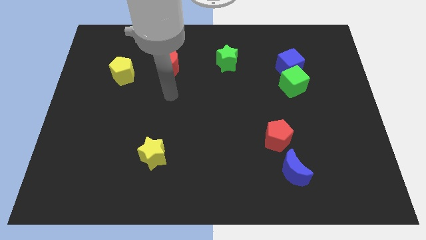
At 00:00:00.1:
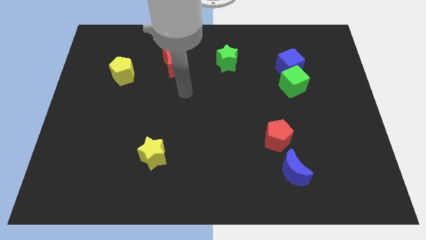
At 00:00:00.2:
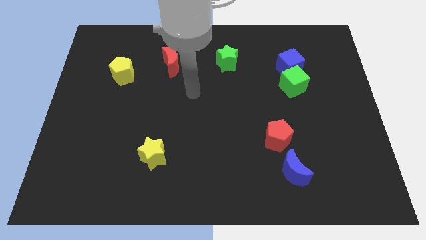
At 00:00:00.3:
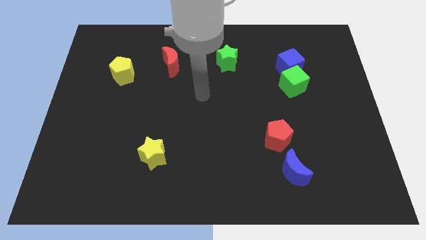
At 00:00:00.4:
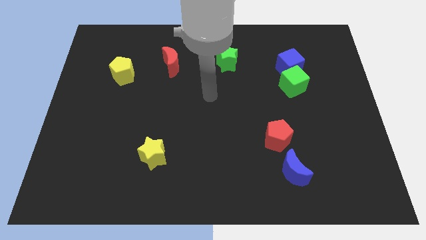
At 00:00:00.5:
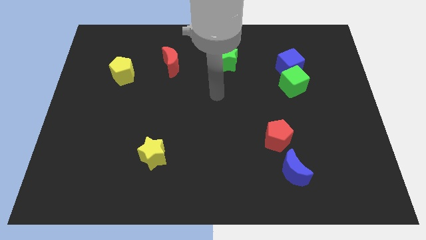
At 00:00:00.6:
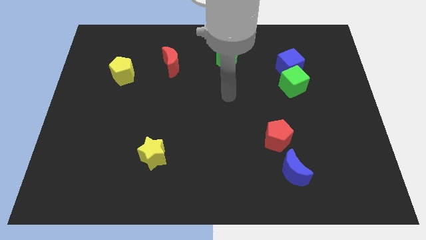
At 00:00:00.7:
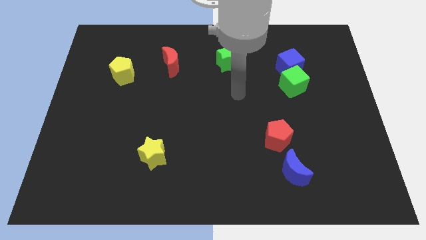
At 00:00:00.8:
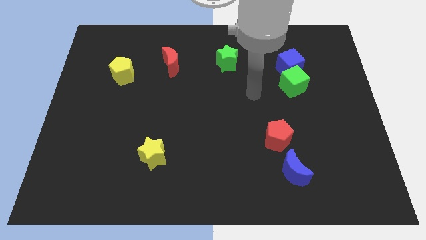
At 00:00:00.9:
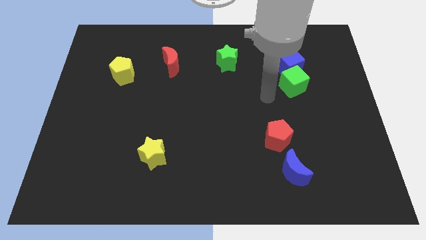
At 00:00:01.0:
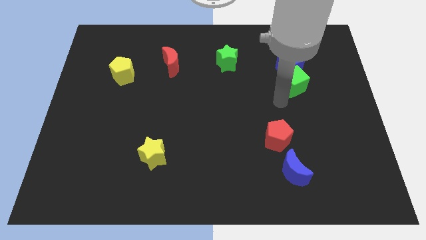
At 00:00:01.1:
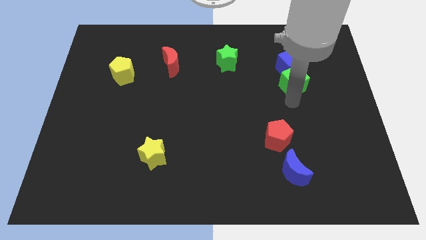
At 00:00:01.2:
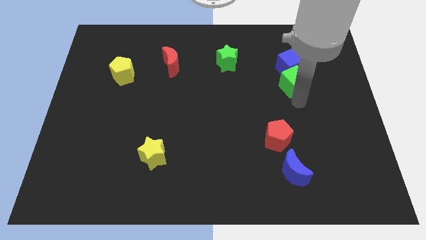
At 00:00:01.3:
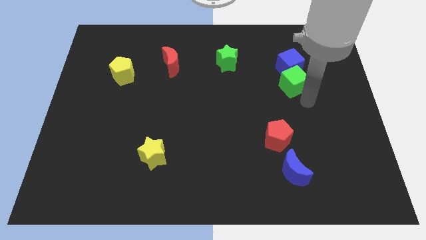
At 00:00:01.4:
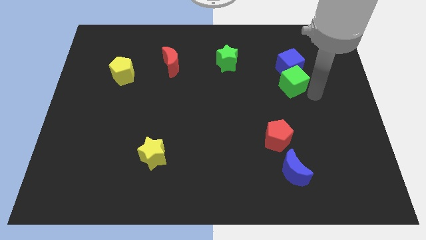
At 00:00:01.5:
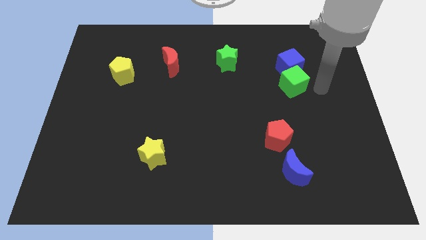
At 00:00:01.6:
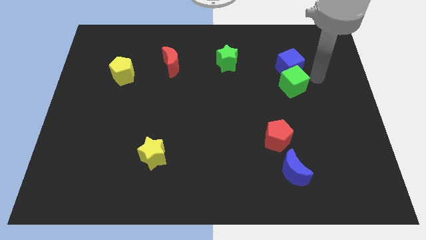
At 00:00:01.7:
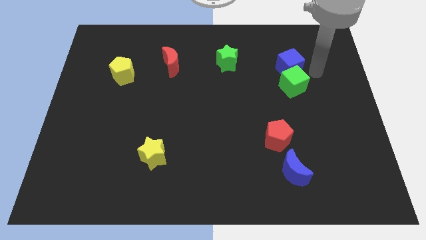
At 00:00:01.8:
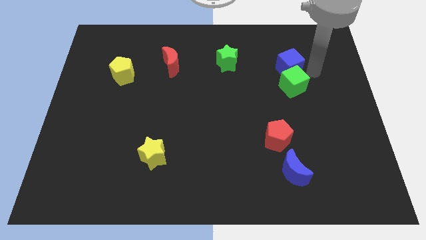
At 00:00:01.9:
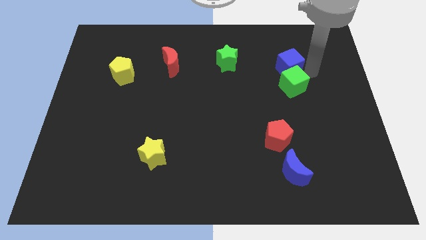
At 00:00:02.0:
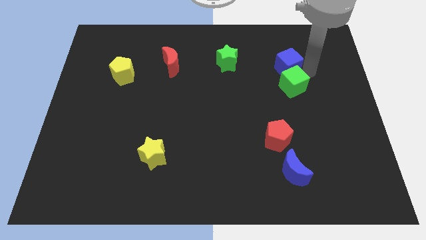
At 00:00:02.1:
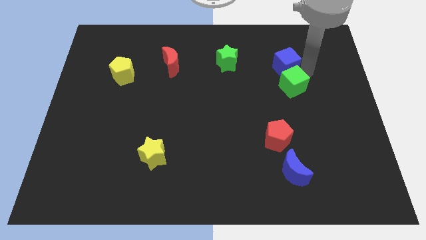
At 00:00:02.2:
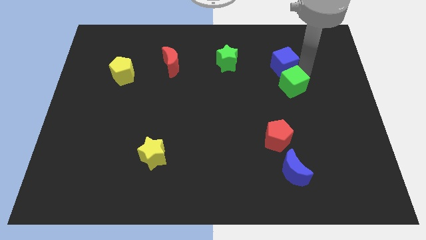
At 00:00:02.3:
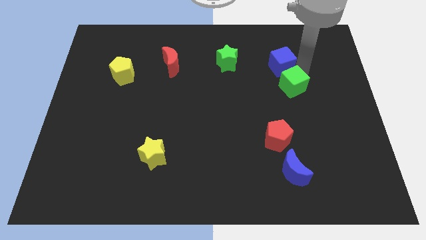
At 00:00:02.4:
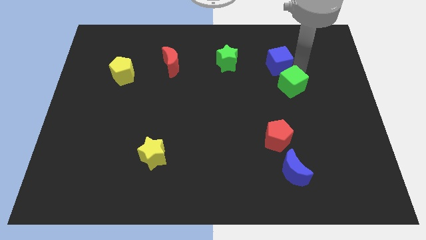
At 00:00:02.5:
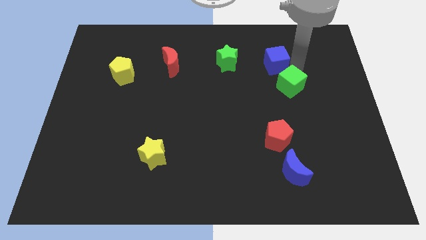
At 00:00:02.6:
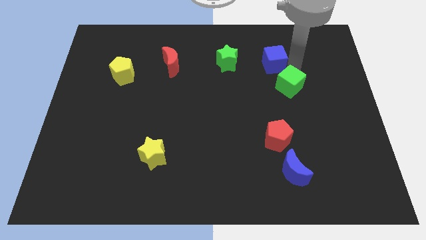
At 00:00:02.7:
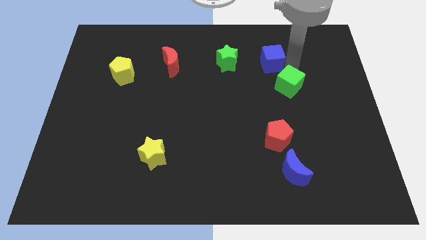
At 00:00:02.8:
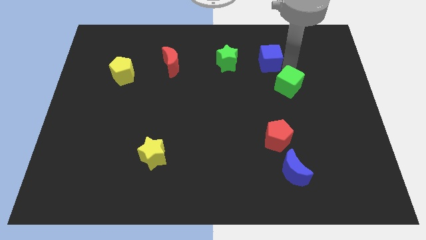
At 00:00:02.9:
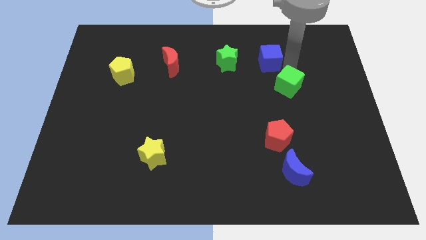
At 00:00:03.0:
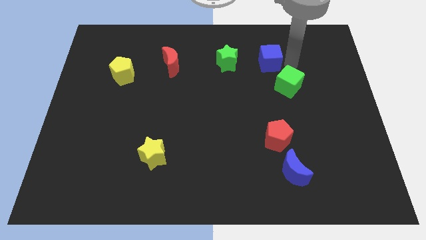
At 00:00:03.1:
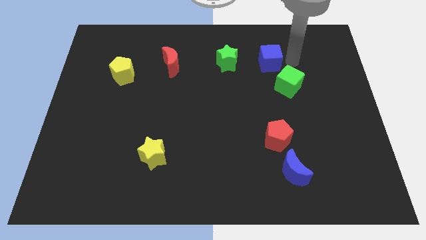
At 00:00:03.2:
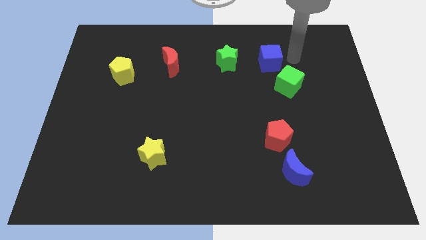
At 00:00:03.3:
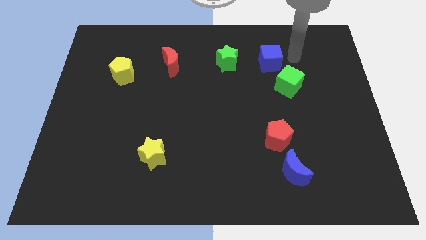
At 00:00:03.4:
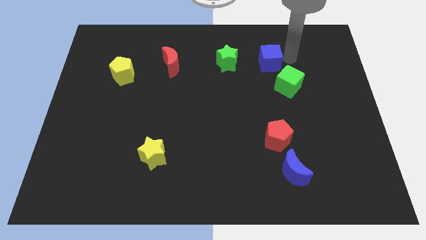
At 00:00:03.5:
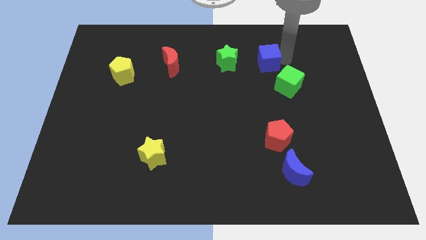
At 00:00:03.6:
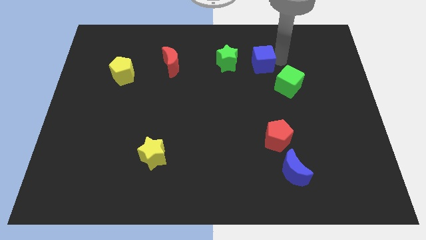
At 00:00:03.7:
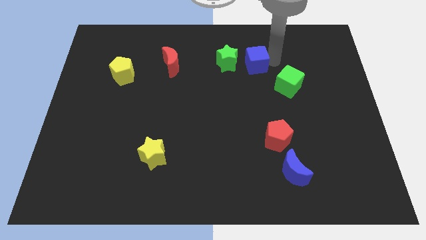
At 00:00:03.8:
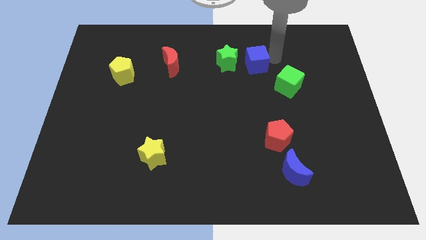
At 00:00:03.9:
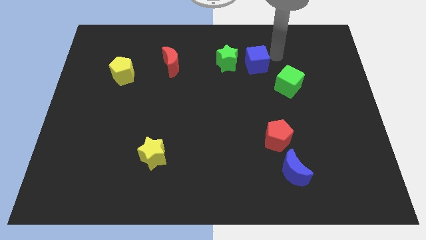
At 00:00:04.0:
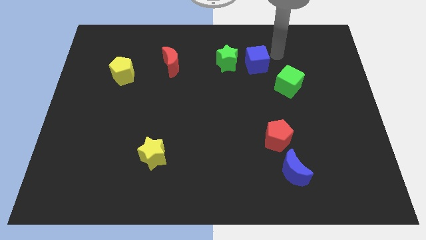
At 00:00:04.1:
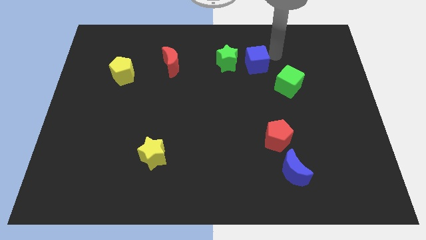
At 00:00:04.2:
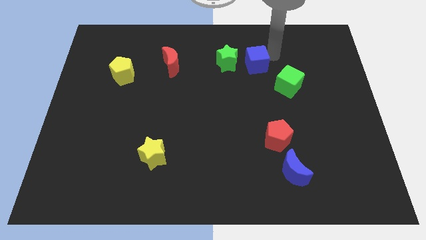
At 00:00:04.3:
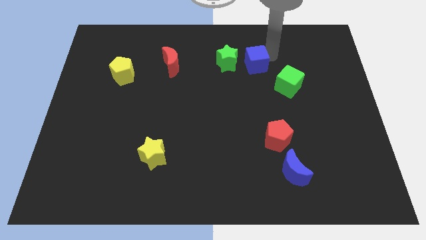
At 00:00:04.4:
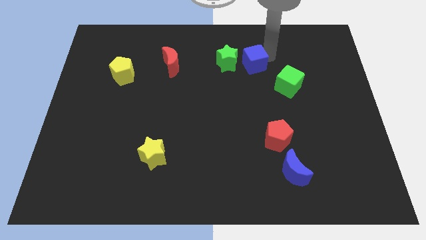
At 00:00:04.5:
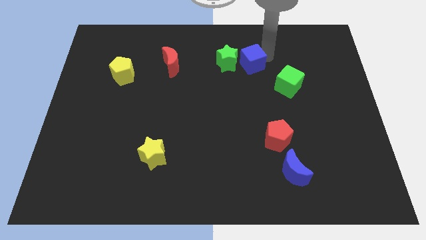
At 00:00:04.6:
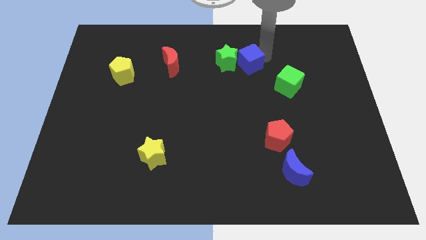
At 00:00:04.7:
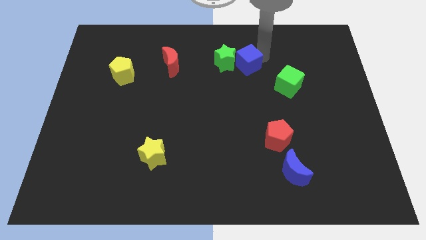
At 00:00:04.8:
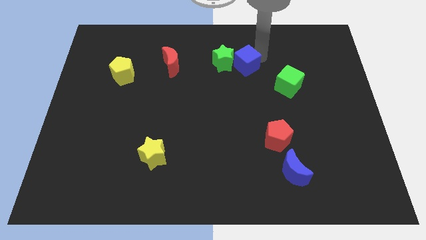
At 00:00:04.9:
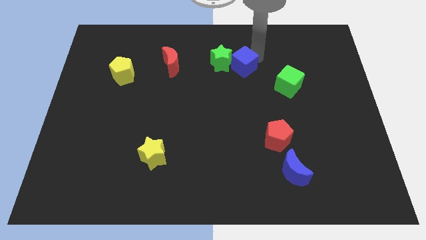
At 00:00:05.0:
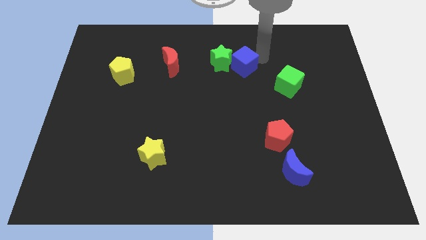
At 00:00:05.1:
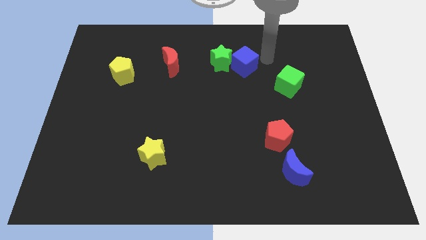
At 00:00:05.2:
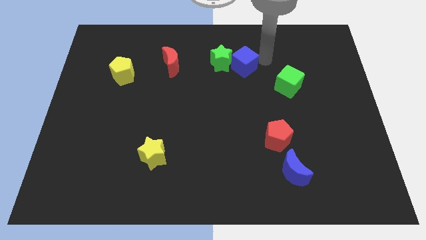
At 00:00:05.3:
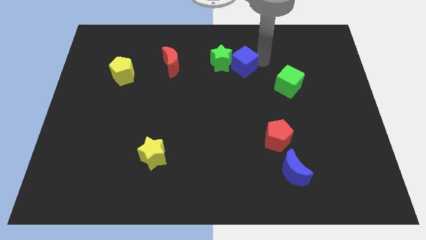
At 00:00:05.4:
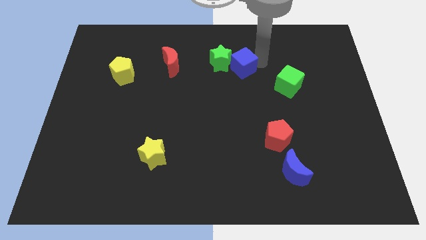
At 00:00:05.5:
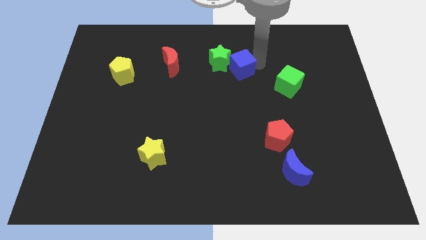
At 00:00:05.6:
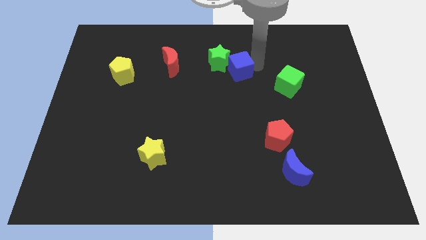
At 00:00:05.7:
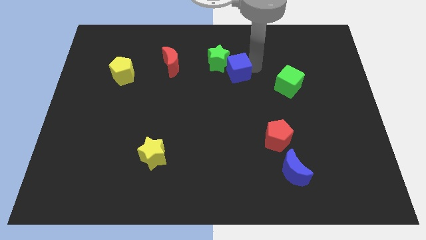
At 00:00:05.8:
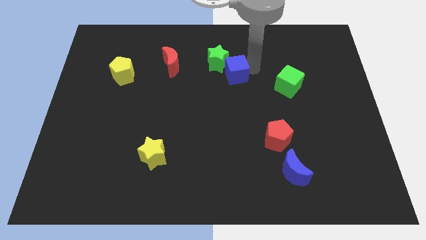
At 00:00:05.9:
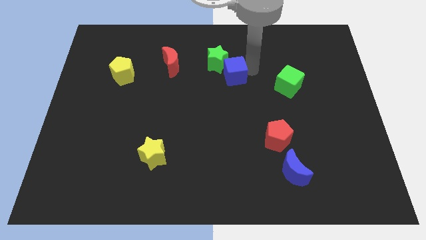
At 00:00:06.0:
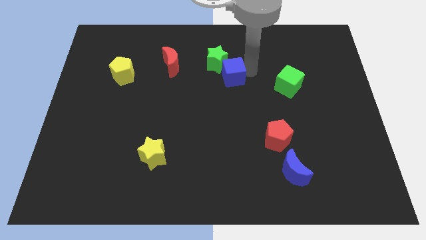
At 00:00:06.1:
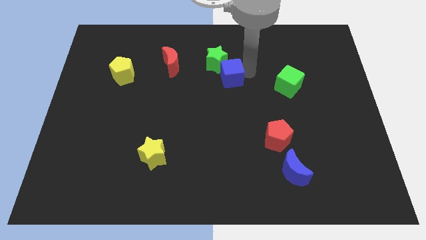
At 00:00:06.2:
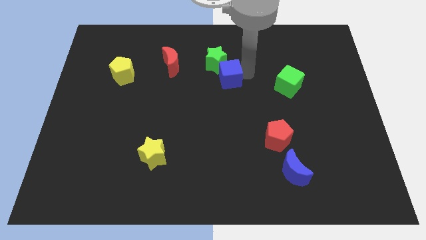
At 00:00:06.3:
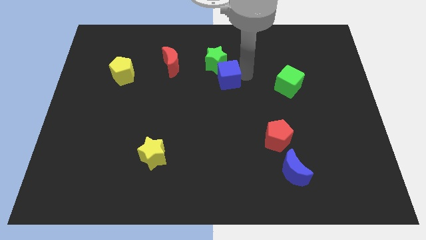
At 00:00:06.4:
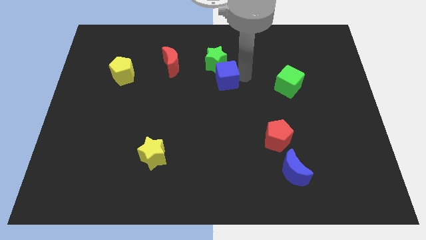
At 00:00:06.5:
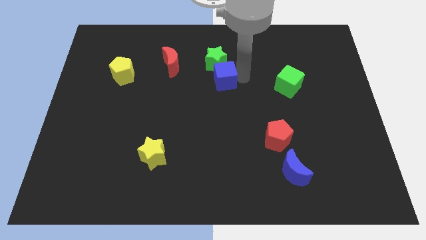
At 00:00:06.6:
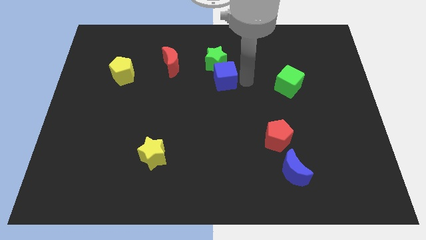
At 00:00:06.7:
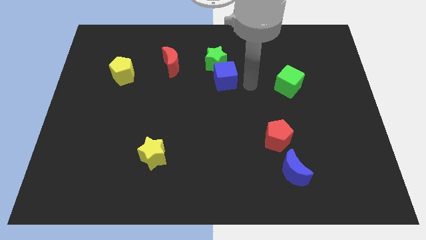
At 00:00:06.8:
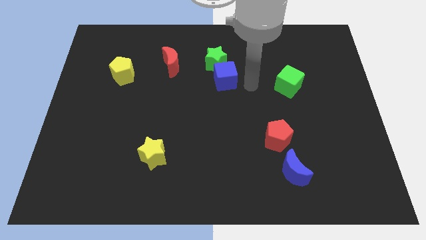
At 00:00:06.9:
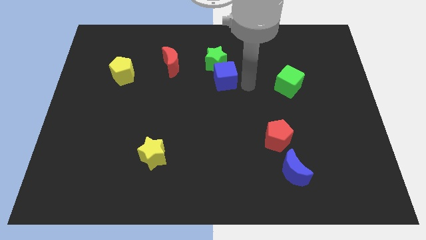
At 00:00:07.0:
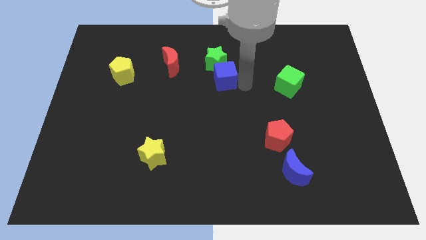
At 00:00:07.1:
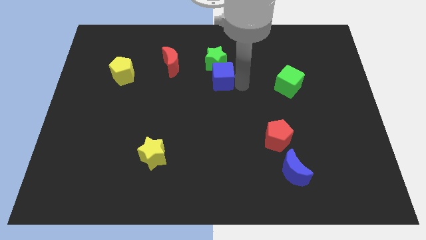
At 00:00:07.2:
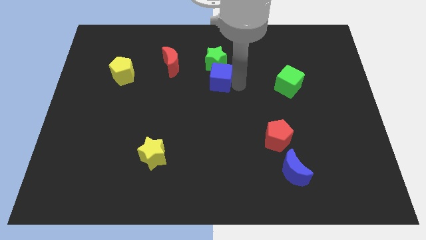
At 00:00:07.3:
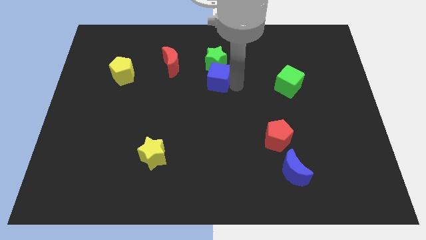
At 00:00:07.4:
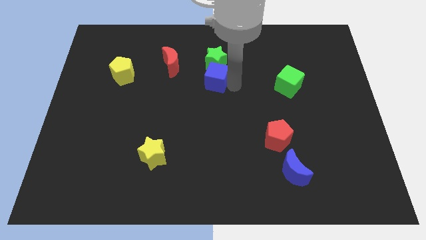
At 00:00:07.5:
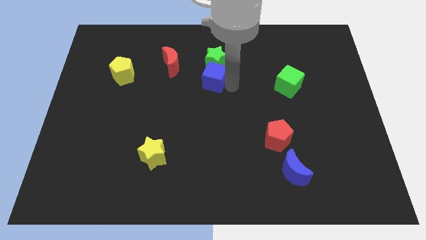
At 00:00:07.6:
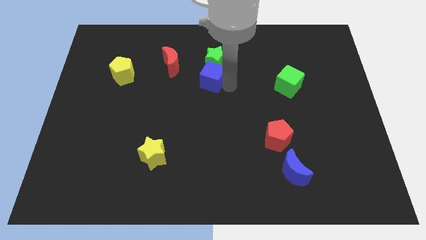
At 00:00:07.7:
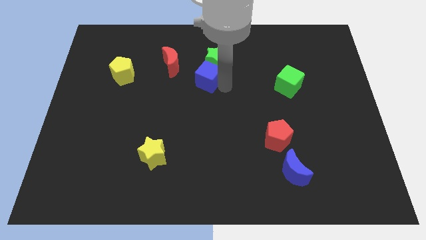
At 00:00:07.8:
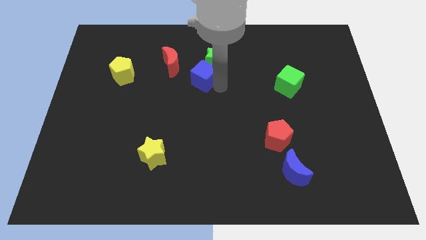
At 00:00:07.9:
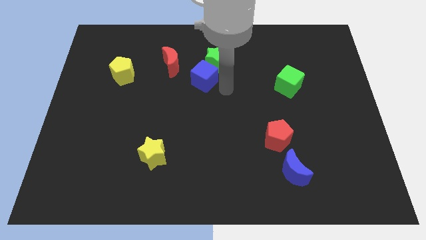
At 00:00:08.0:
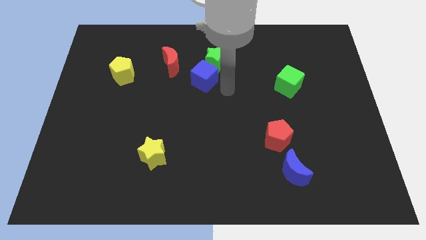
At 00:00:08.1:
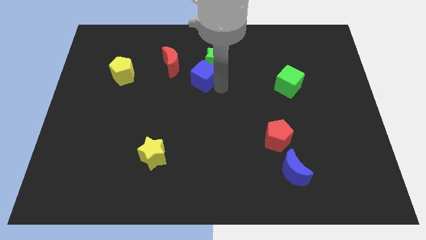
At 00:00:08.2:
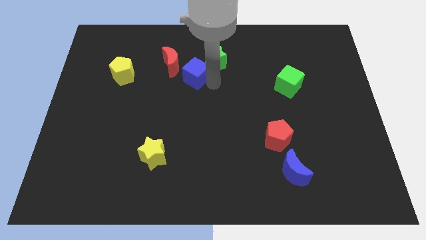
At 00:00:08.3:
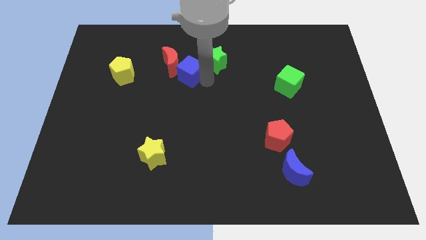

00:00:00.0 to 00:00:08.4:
push the blue cube to the red moon
